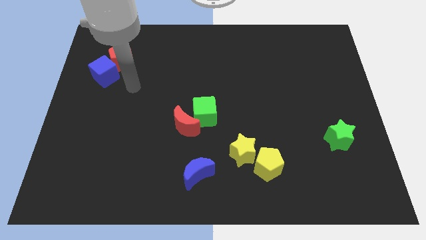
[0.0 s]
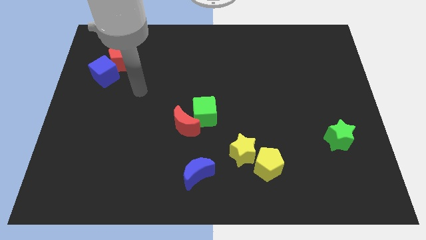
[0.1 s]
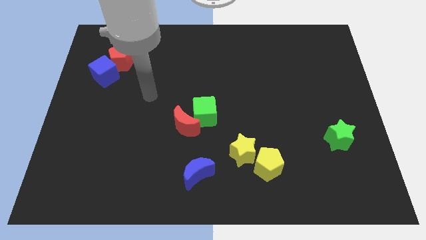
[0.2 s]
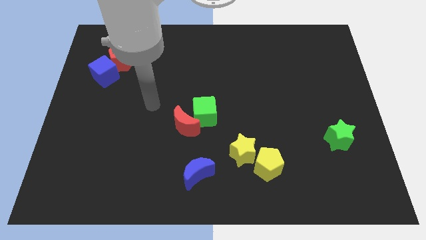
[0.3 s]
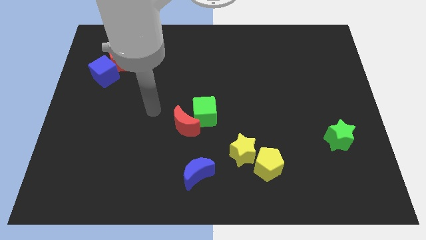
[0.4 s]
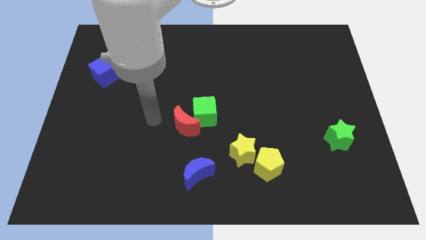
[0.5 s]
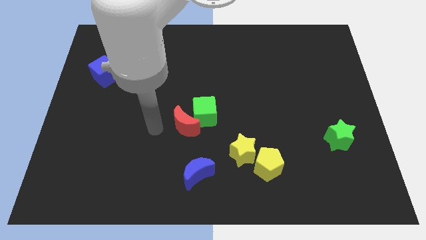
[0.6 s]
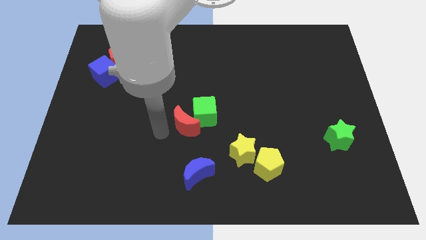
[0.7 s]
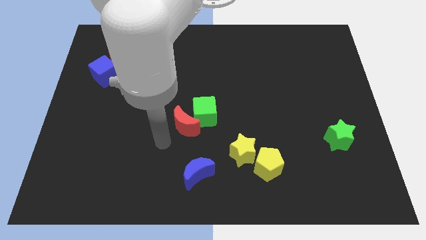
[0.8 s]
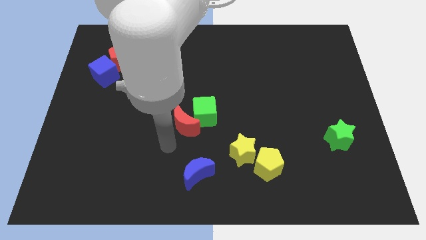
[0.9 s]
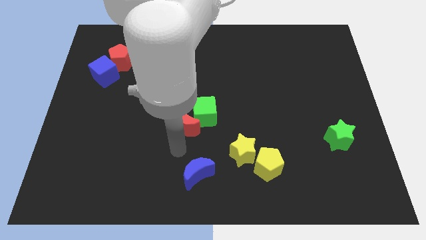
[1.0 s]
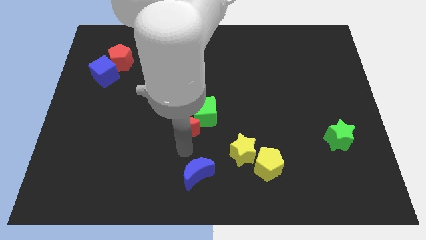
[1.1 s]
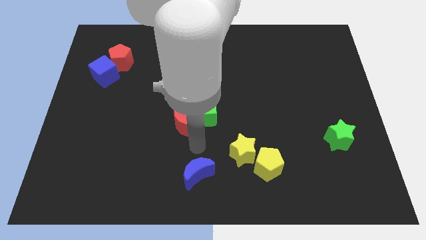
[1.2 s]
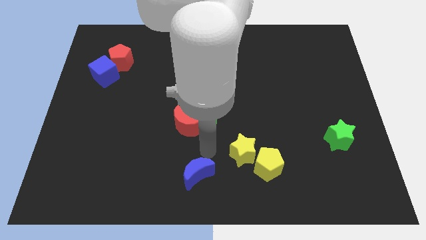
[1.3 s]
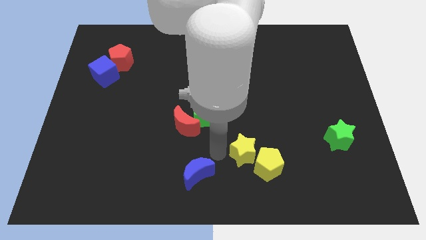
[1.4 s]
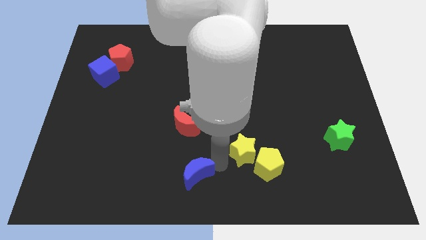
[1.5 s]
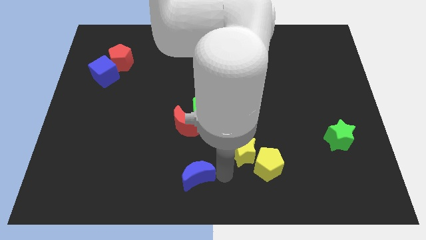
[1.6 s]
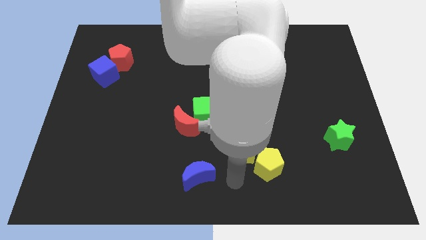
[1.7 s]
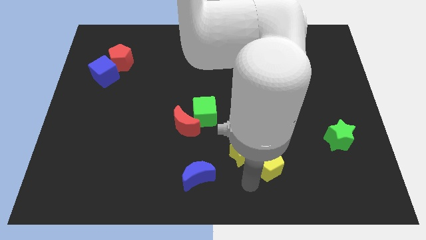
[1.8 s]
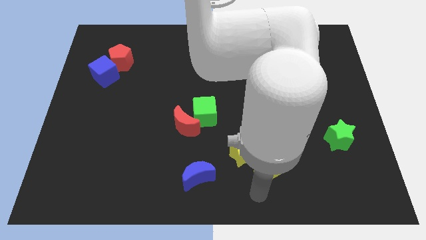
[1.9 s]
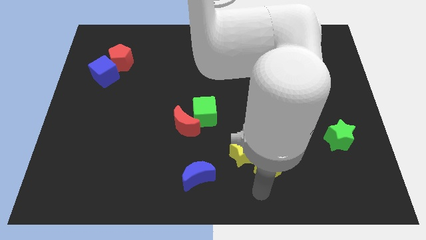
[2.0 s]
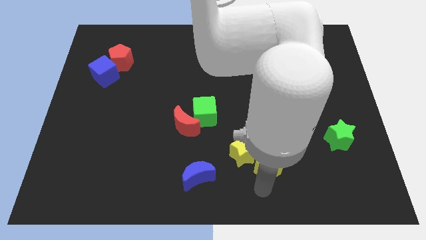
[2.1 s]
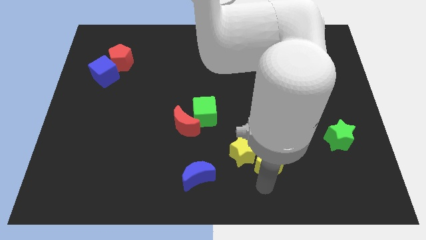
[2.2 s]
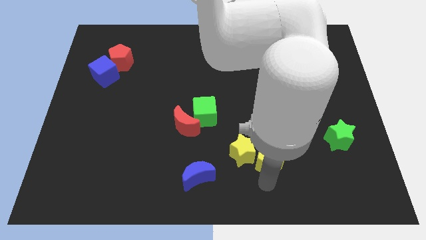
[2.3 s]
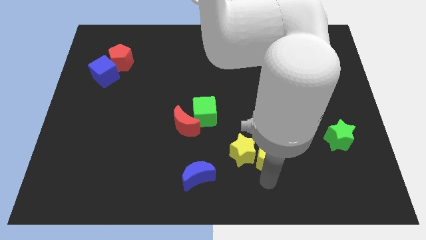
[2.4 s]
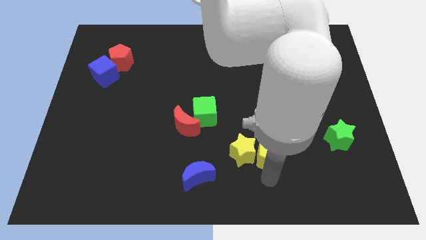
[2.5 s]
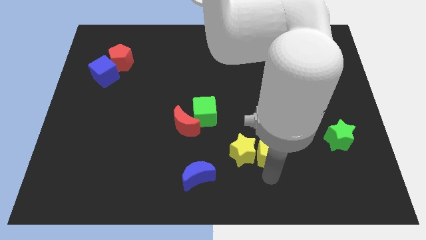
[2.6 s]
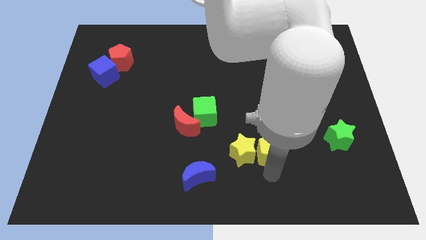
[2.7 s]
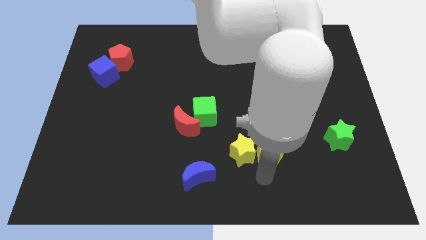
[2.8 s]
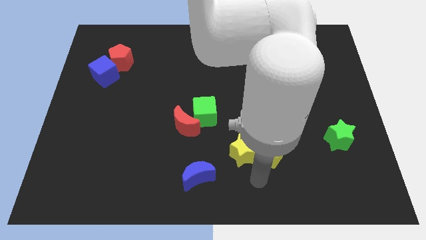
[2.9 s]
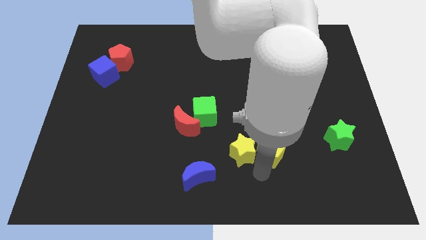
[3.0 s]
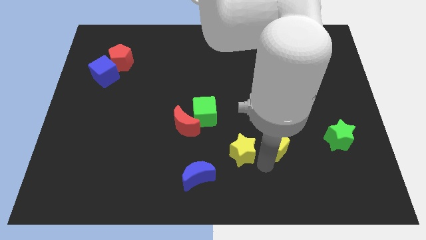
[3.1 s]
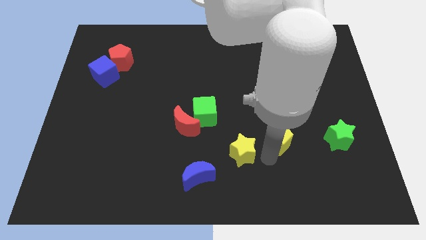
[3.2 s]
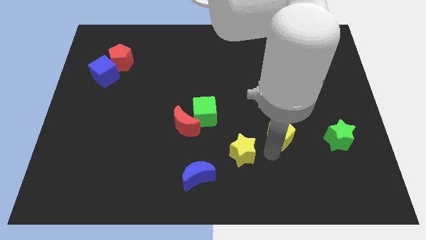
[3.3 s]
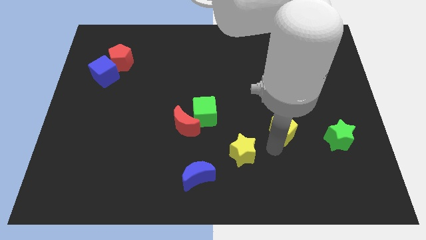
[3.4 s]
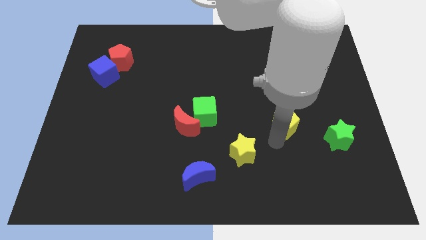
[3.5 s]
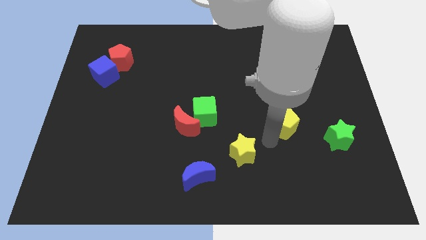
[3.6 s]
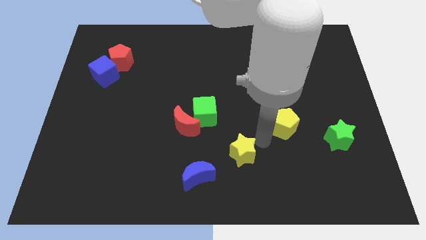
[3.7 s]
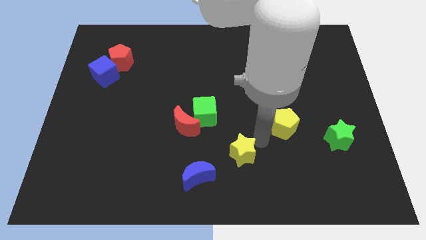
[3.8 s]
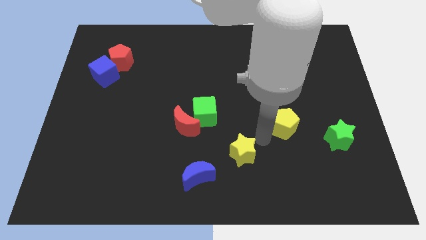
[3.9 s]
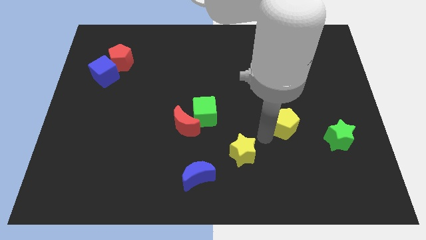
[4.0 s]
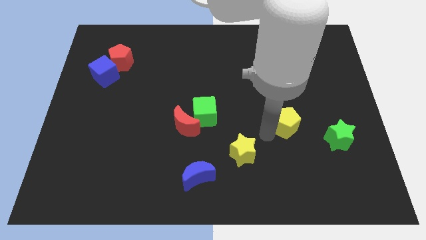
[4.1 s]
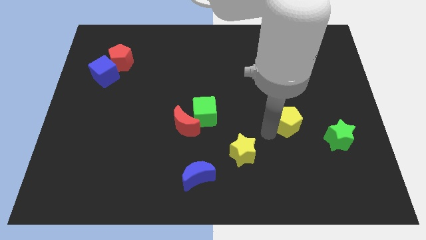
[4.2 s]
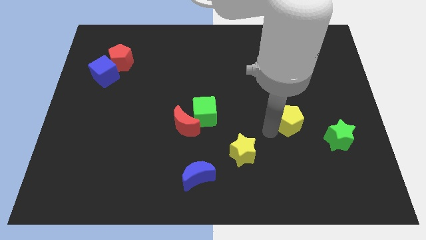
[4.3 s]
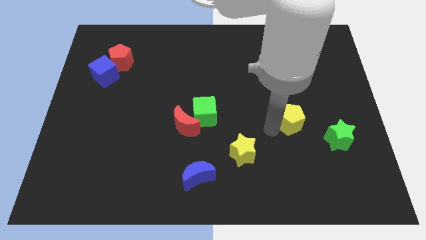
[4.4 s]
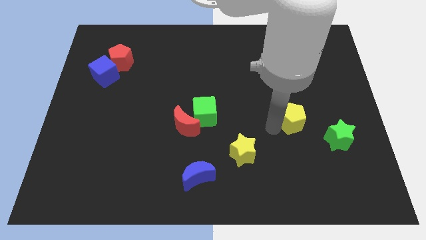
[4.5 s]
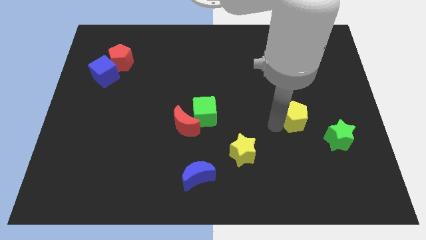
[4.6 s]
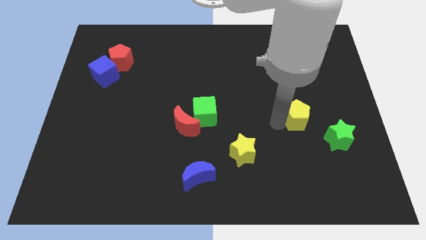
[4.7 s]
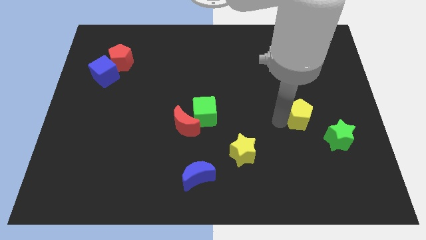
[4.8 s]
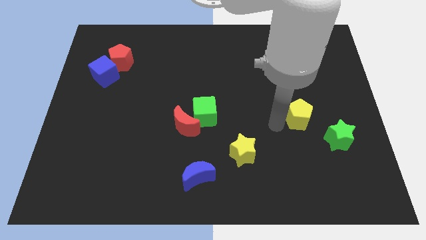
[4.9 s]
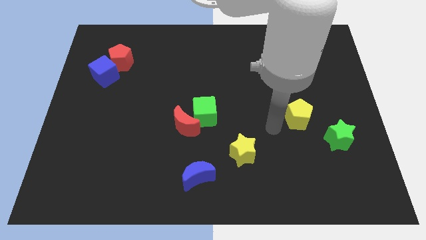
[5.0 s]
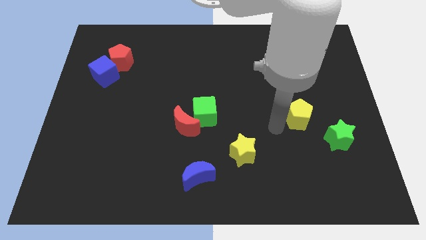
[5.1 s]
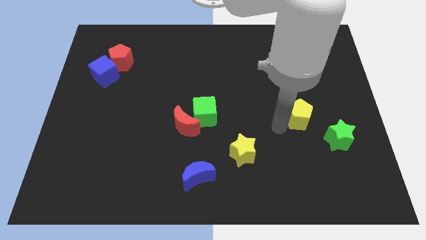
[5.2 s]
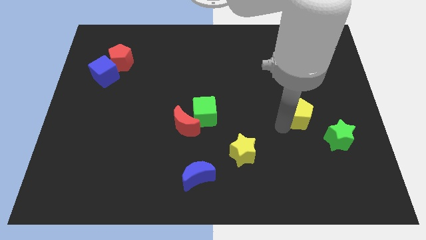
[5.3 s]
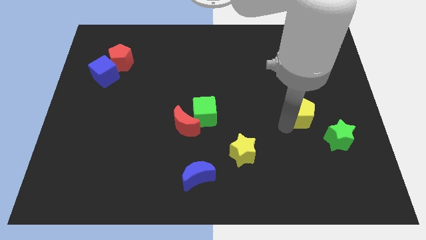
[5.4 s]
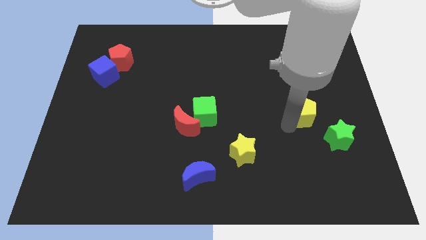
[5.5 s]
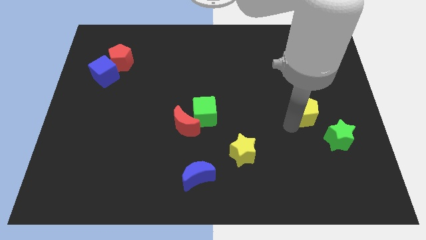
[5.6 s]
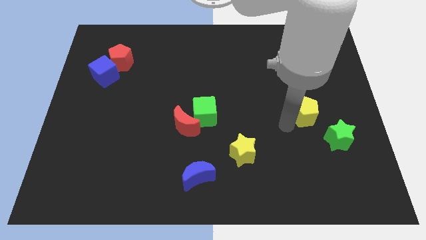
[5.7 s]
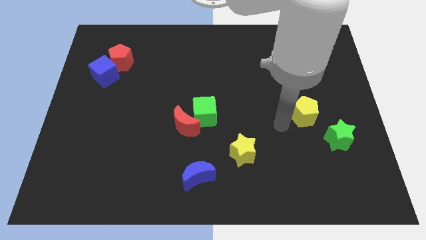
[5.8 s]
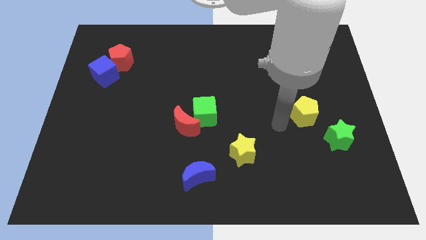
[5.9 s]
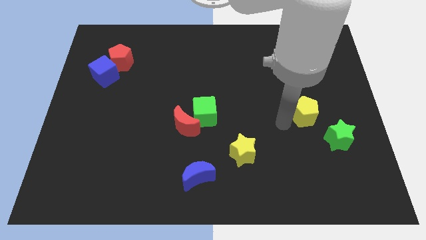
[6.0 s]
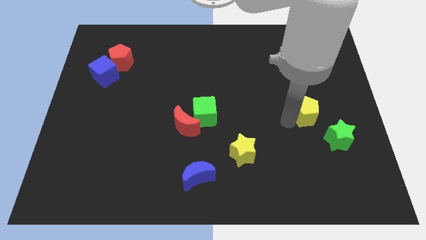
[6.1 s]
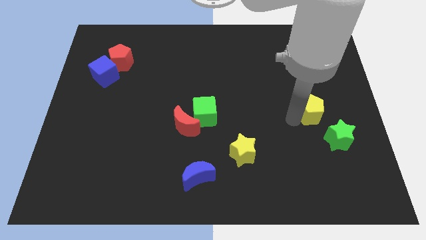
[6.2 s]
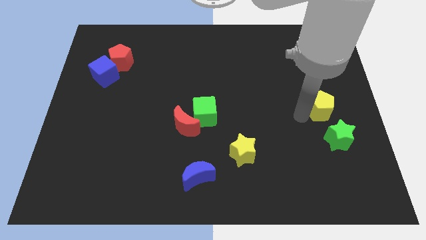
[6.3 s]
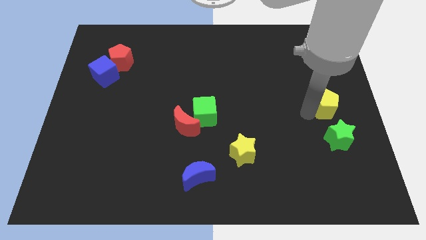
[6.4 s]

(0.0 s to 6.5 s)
slide the yellow pentagon to the right side of the board
